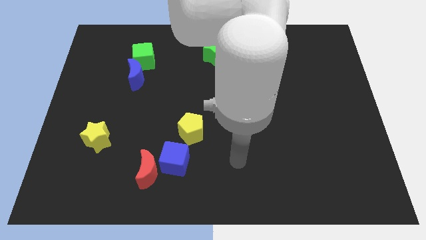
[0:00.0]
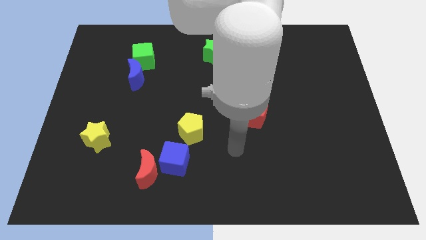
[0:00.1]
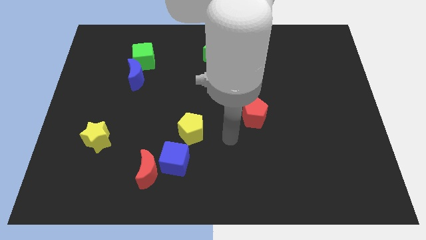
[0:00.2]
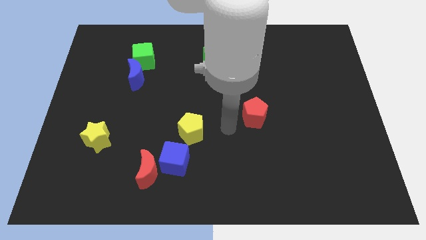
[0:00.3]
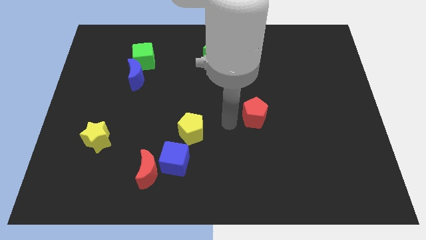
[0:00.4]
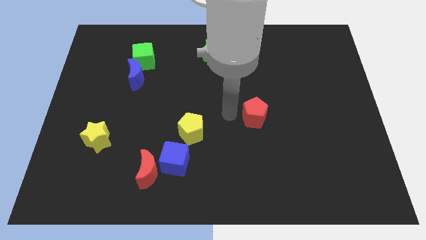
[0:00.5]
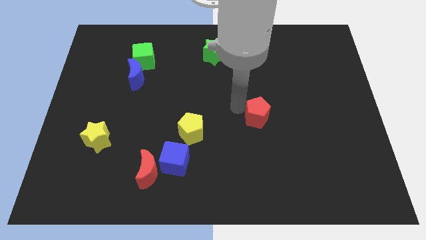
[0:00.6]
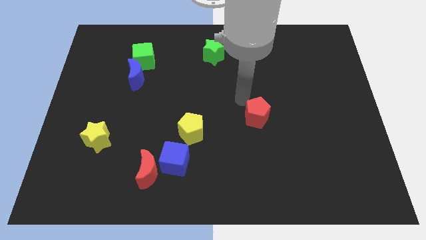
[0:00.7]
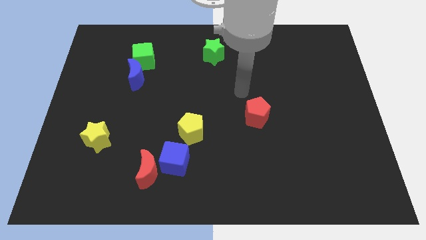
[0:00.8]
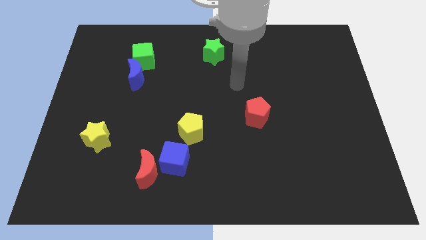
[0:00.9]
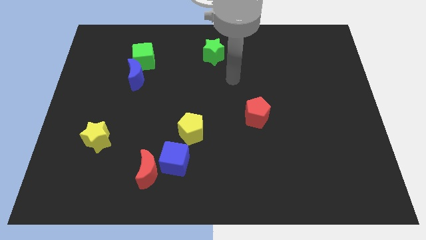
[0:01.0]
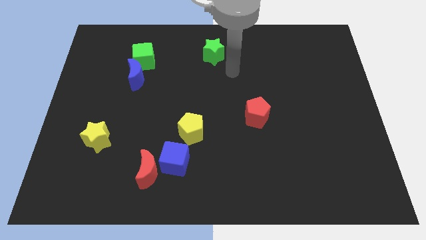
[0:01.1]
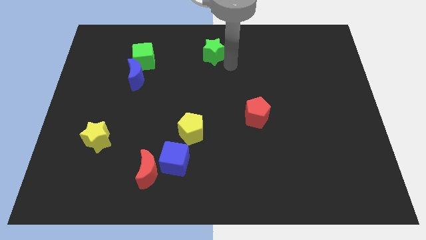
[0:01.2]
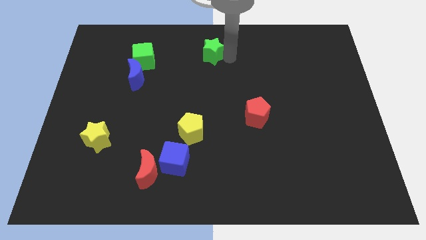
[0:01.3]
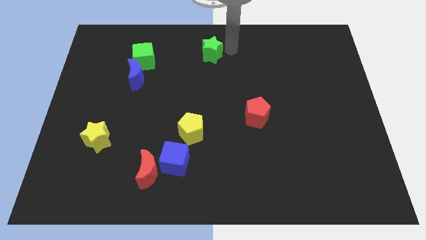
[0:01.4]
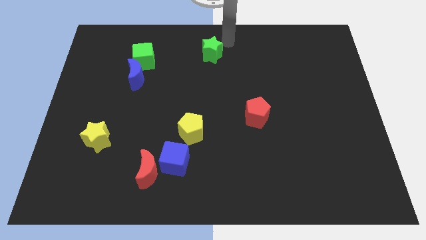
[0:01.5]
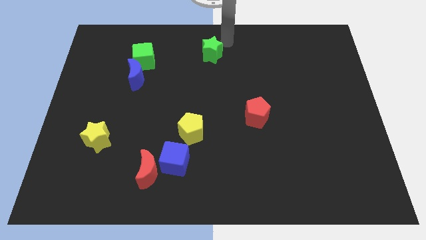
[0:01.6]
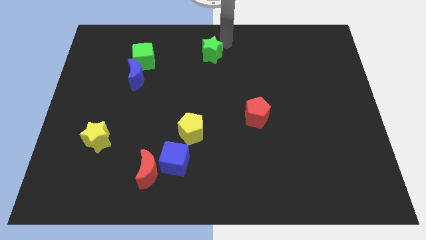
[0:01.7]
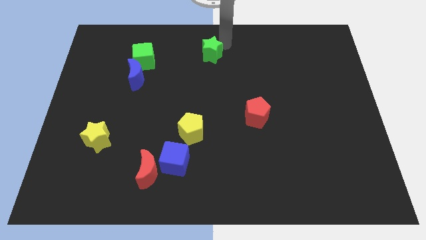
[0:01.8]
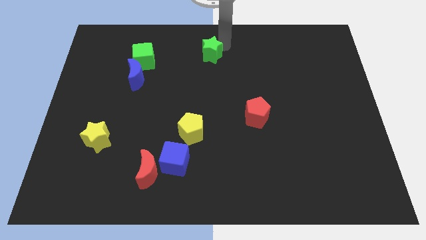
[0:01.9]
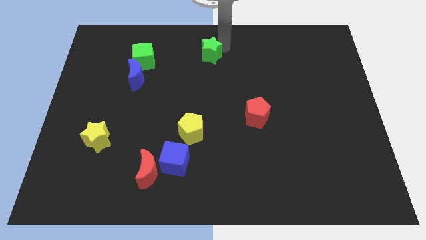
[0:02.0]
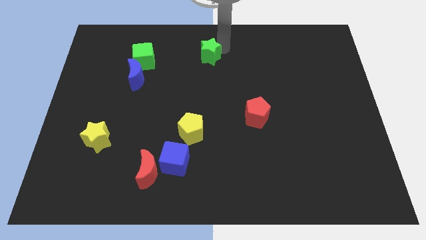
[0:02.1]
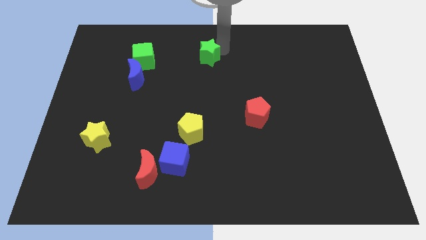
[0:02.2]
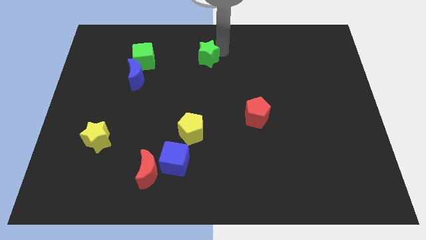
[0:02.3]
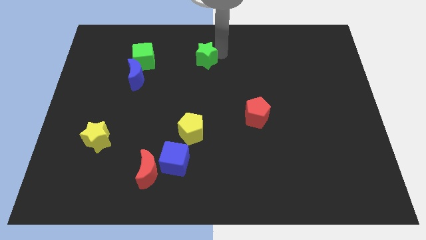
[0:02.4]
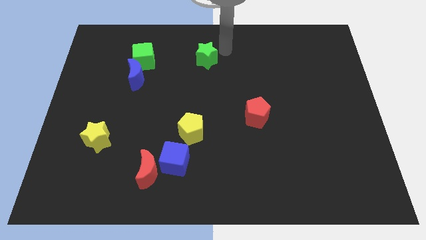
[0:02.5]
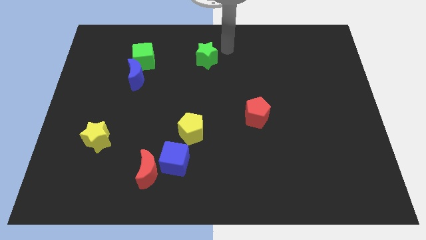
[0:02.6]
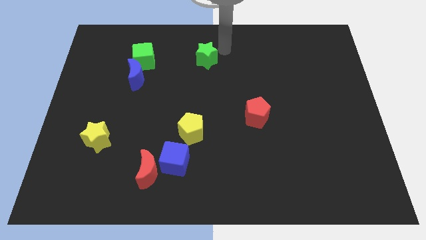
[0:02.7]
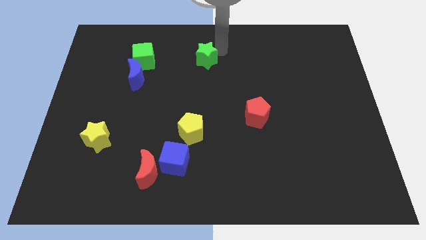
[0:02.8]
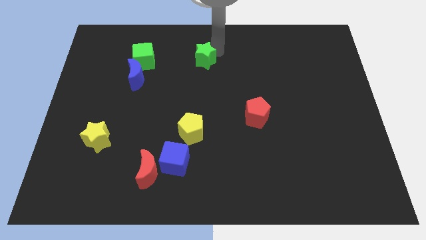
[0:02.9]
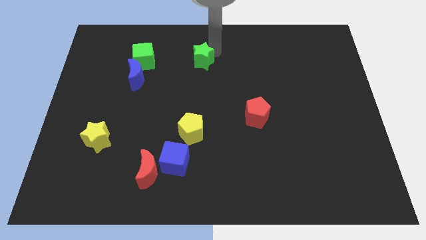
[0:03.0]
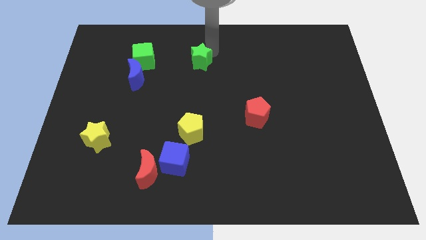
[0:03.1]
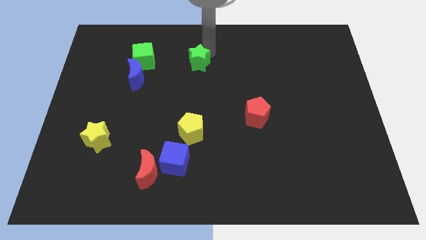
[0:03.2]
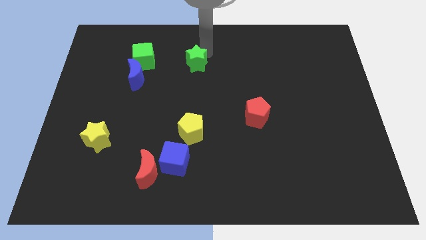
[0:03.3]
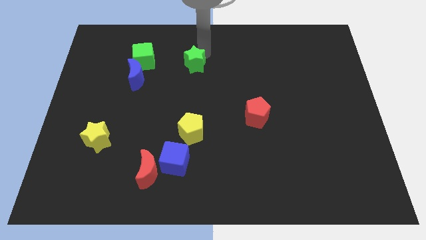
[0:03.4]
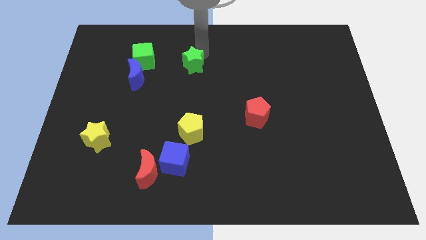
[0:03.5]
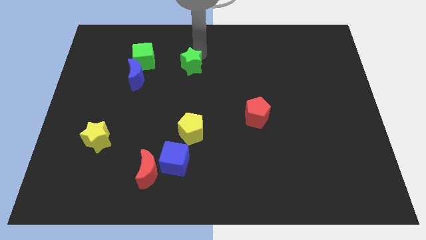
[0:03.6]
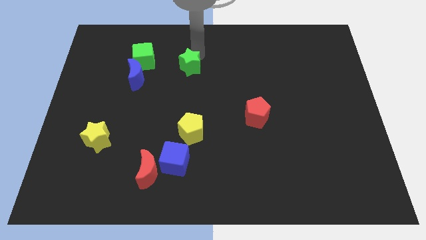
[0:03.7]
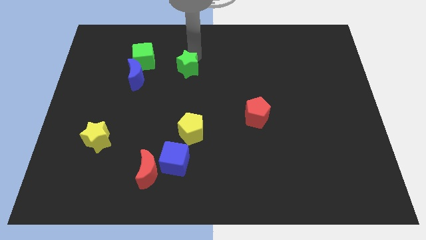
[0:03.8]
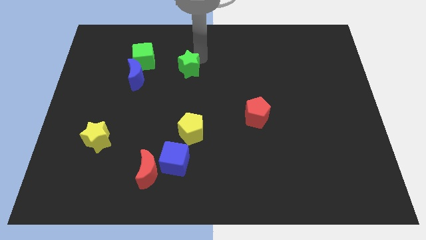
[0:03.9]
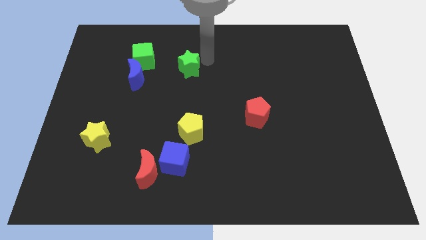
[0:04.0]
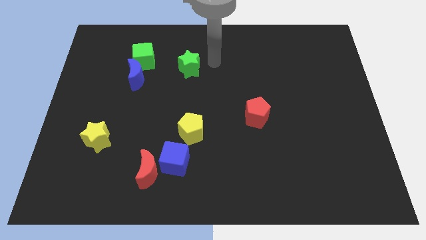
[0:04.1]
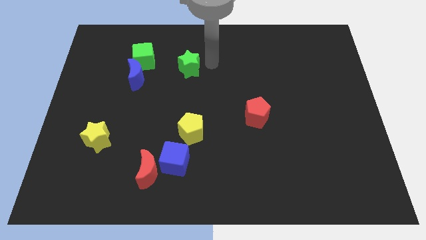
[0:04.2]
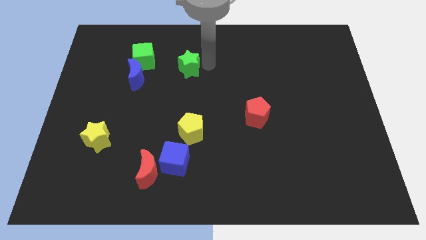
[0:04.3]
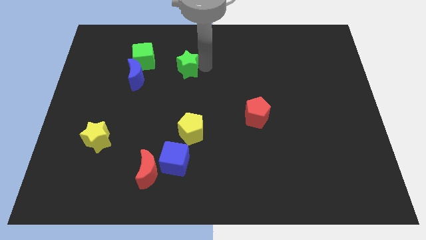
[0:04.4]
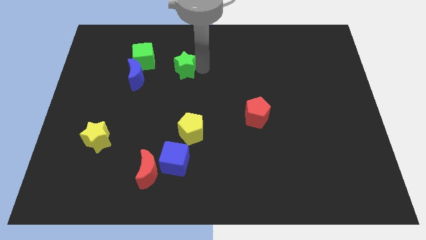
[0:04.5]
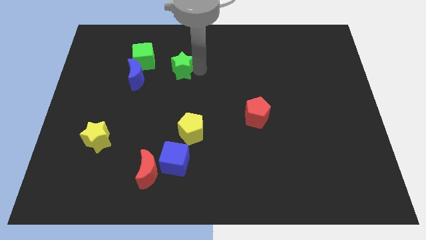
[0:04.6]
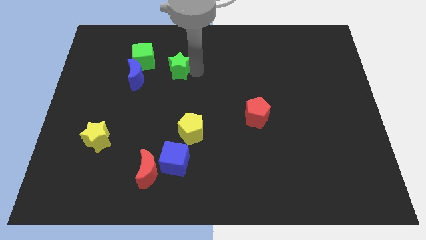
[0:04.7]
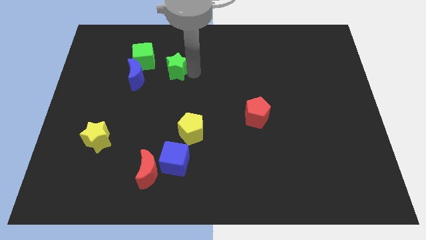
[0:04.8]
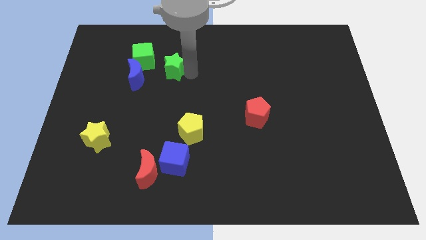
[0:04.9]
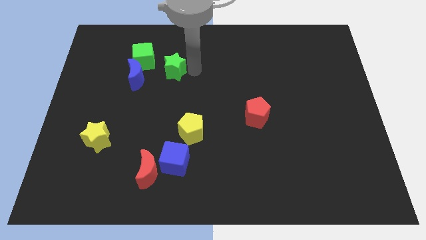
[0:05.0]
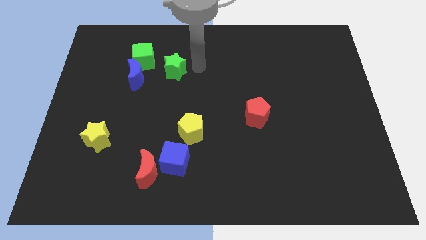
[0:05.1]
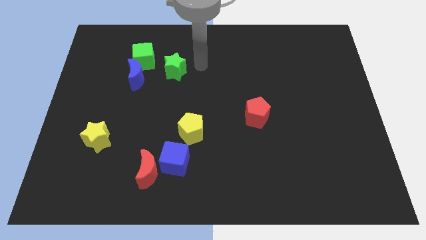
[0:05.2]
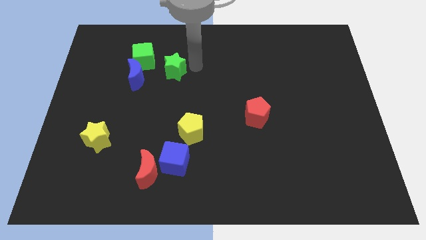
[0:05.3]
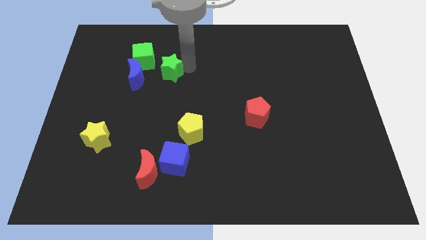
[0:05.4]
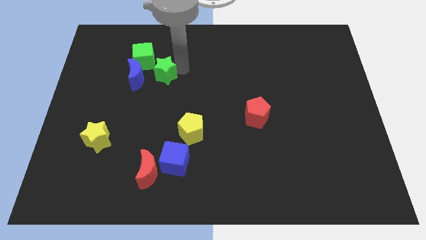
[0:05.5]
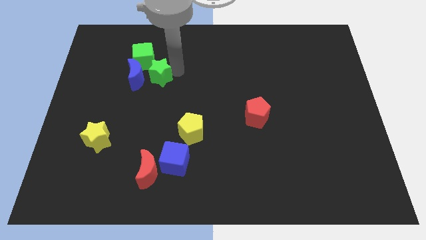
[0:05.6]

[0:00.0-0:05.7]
put the green star to the blue moon

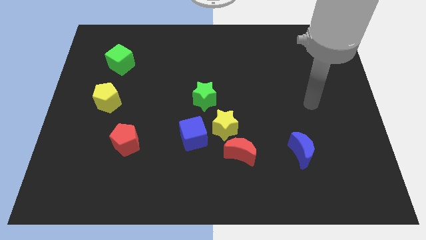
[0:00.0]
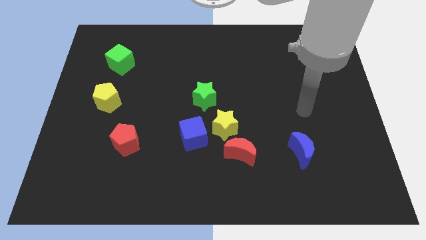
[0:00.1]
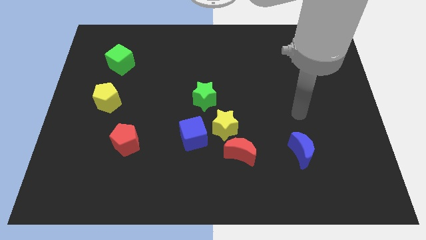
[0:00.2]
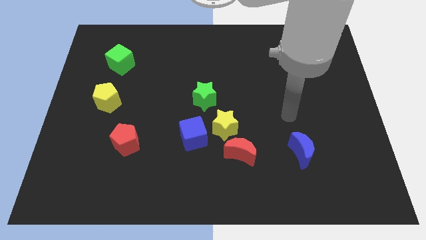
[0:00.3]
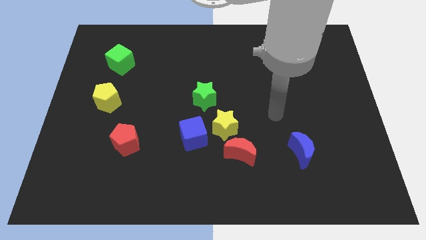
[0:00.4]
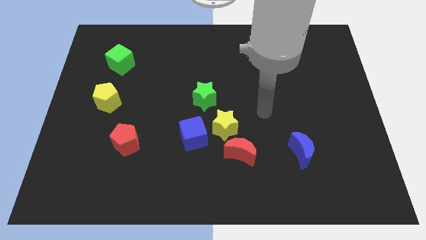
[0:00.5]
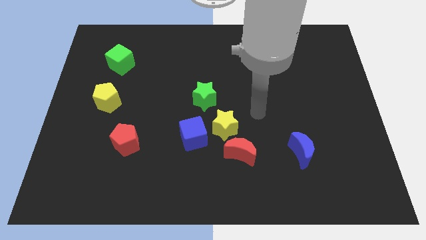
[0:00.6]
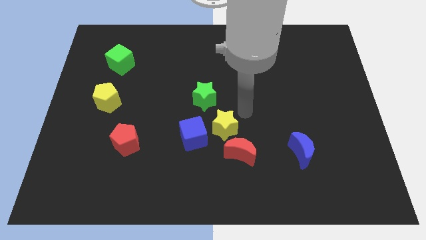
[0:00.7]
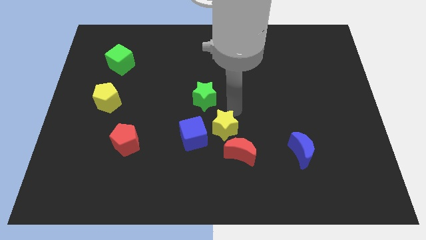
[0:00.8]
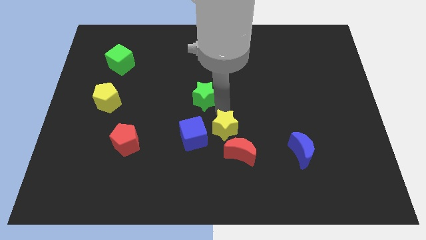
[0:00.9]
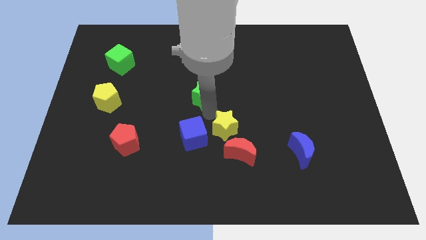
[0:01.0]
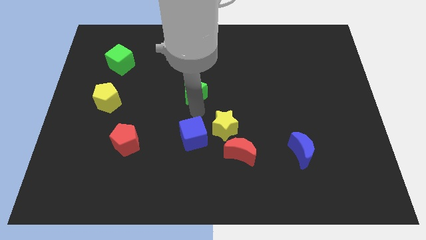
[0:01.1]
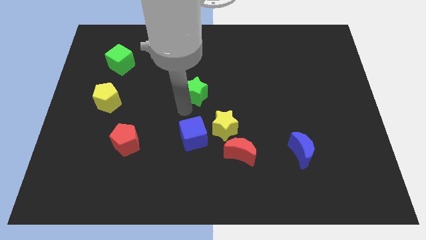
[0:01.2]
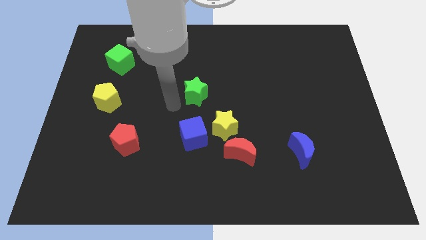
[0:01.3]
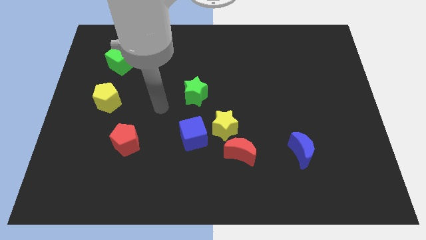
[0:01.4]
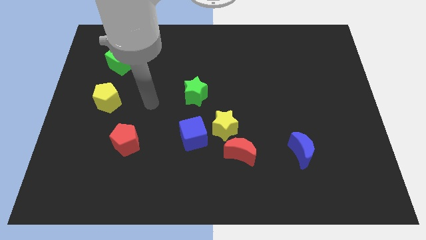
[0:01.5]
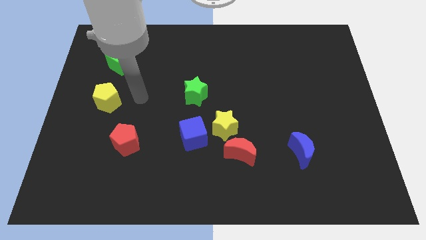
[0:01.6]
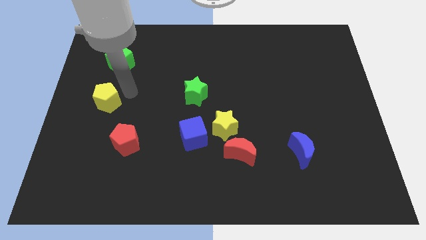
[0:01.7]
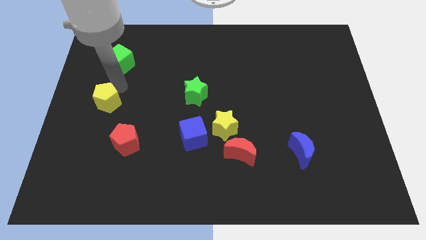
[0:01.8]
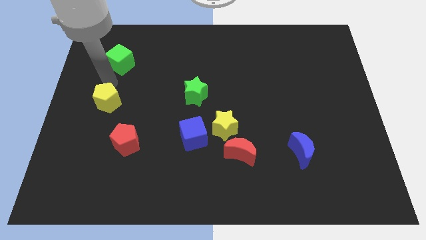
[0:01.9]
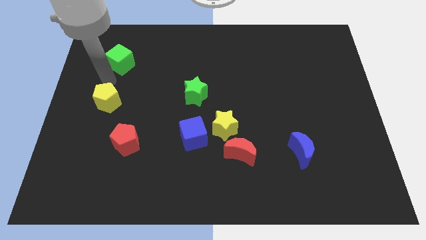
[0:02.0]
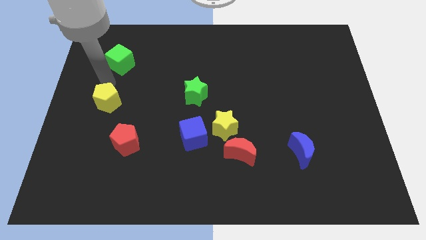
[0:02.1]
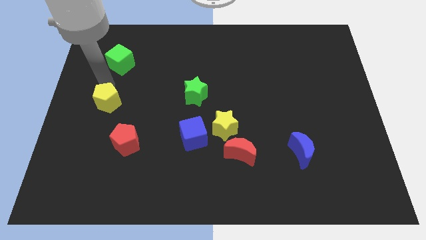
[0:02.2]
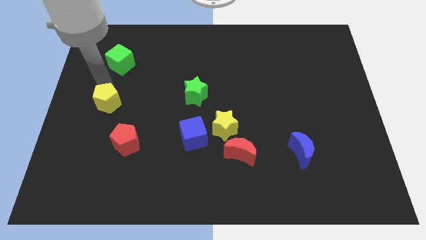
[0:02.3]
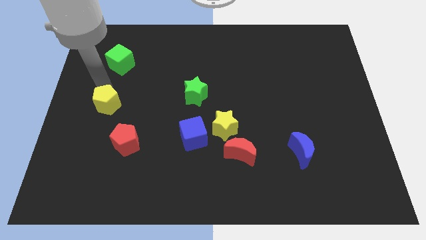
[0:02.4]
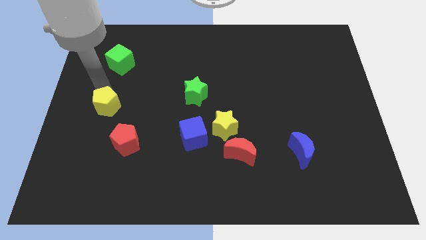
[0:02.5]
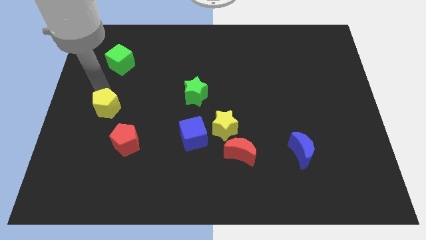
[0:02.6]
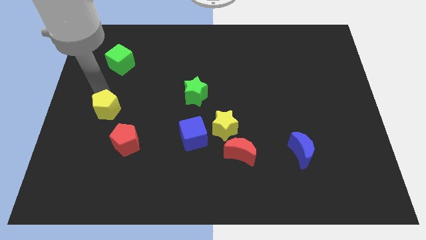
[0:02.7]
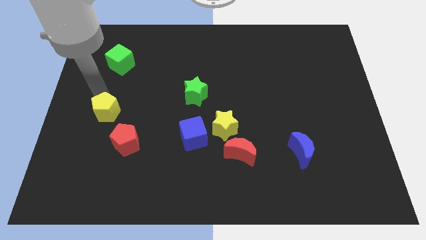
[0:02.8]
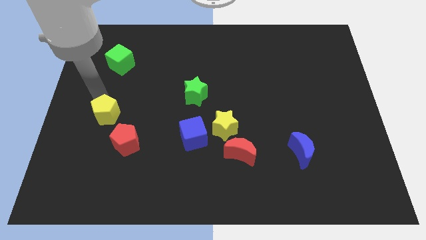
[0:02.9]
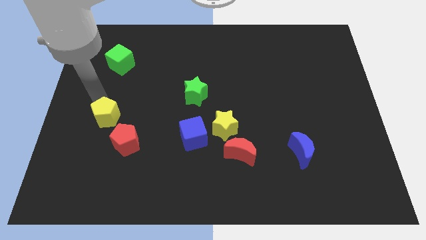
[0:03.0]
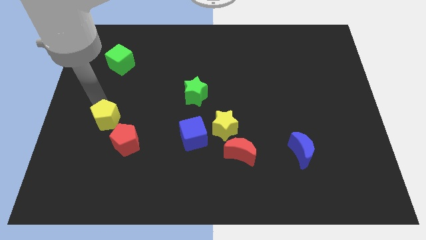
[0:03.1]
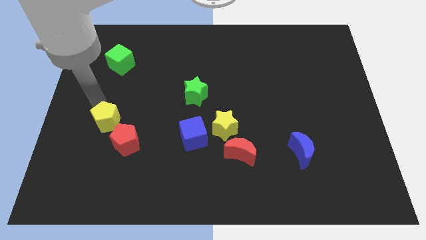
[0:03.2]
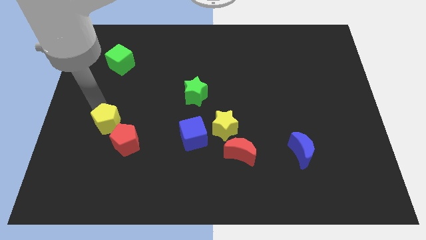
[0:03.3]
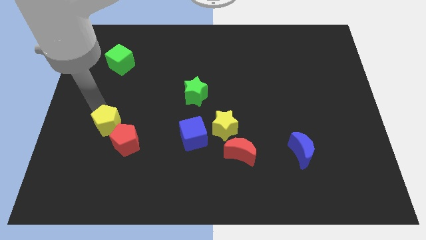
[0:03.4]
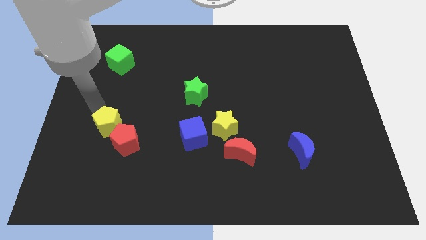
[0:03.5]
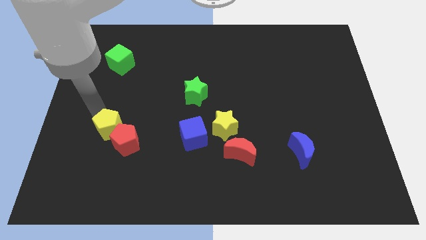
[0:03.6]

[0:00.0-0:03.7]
put the yellow pentagon to the red pentagon
